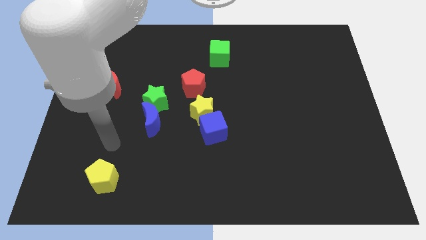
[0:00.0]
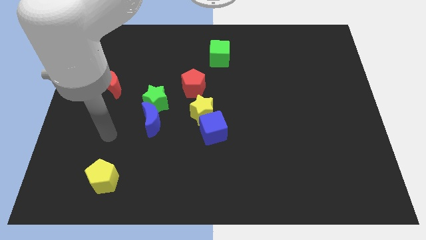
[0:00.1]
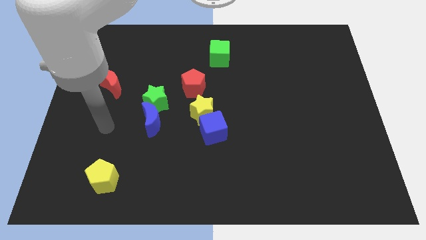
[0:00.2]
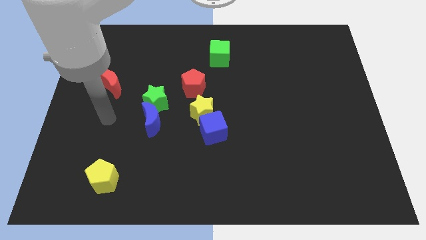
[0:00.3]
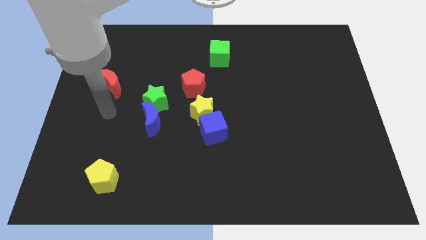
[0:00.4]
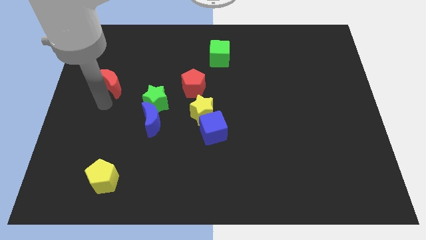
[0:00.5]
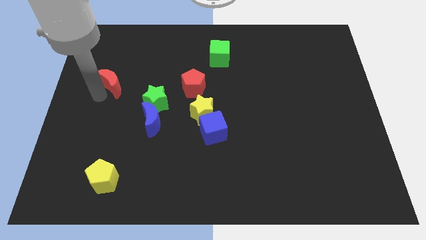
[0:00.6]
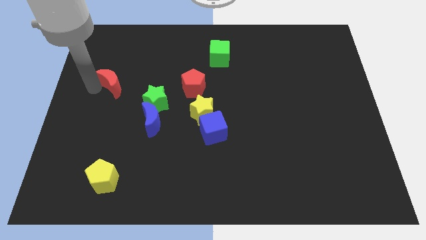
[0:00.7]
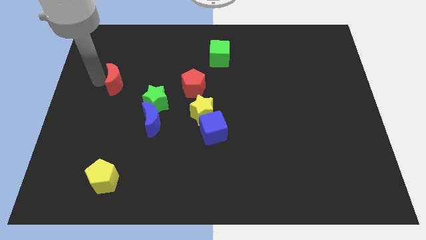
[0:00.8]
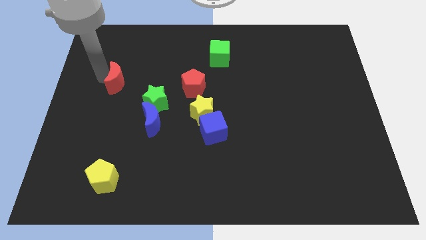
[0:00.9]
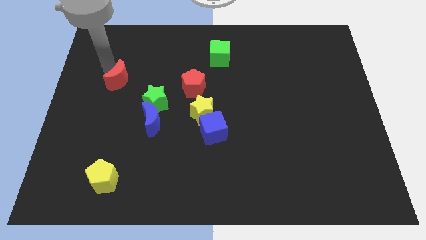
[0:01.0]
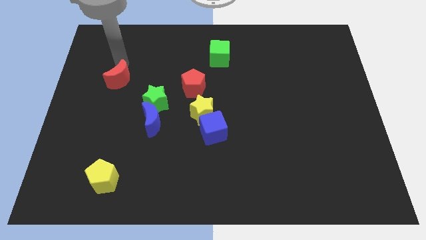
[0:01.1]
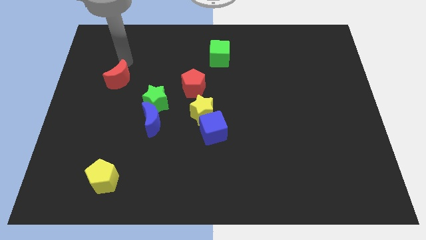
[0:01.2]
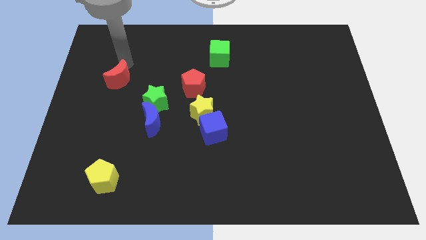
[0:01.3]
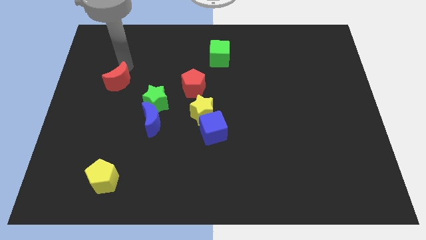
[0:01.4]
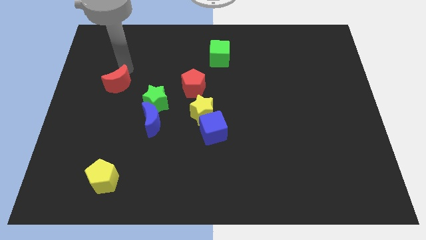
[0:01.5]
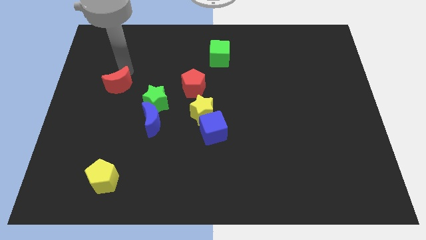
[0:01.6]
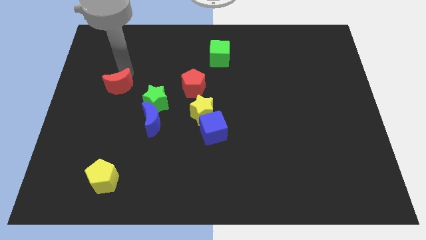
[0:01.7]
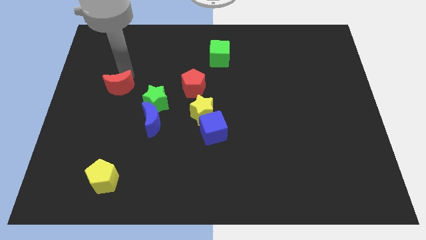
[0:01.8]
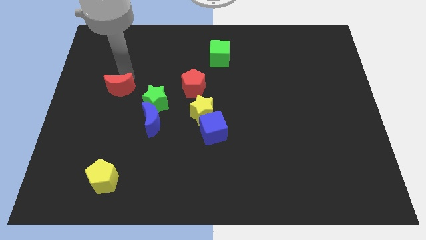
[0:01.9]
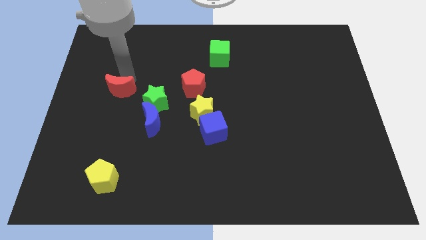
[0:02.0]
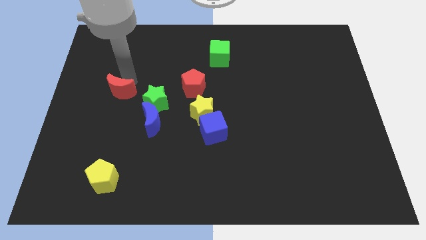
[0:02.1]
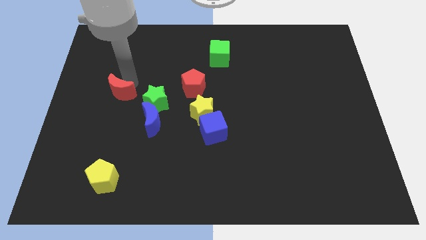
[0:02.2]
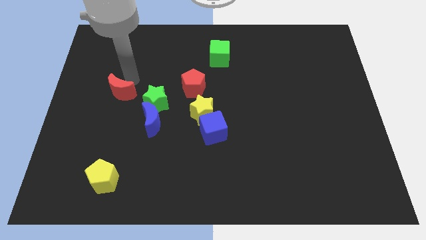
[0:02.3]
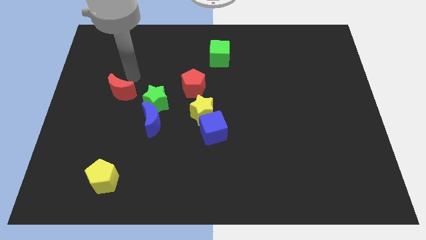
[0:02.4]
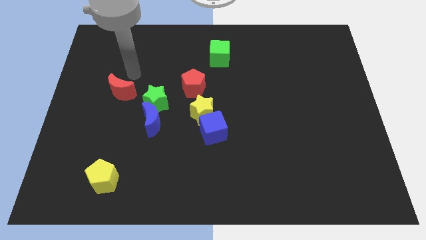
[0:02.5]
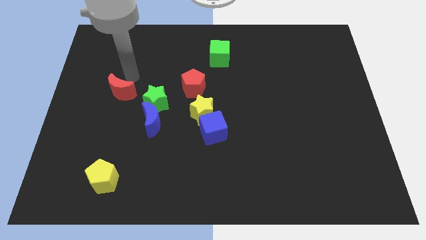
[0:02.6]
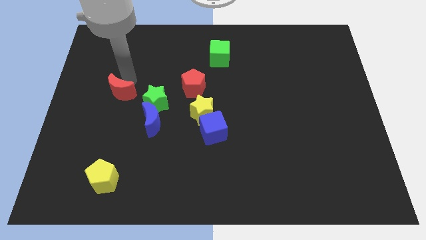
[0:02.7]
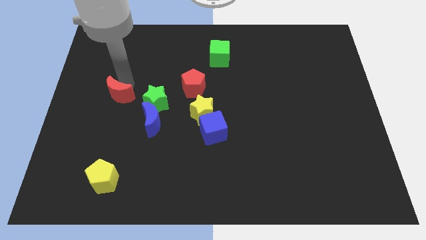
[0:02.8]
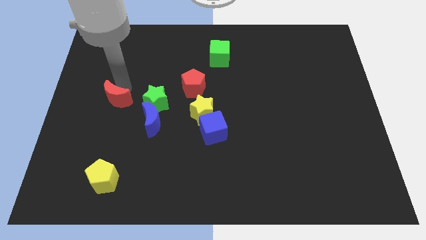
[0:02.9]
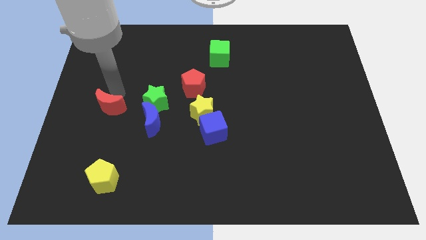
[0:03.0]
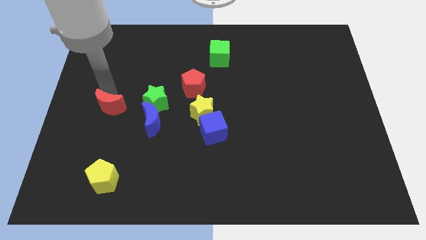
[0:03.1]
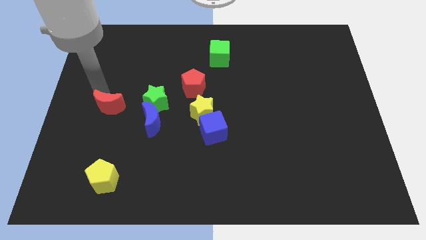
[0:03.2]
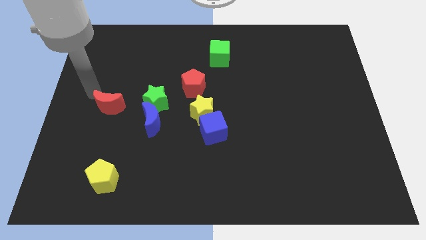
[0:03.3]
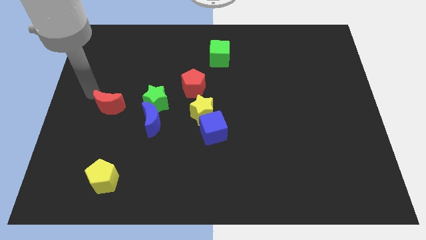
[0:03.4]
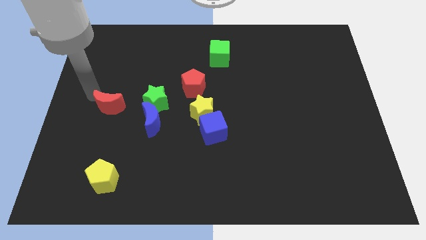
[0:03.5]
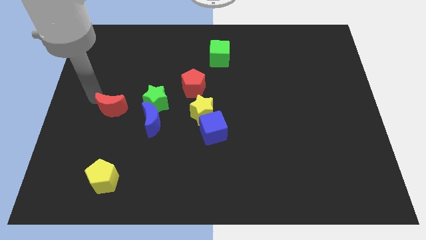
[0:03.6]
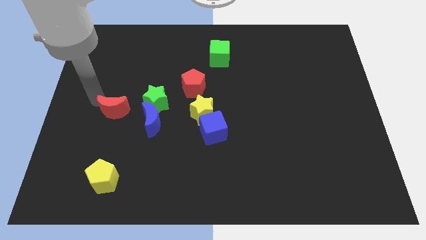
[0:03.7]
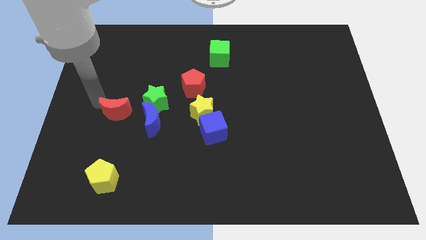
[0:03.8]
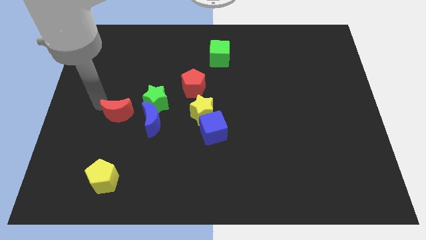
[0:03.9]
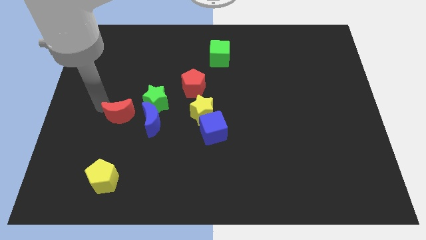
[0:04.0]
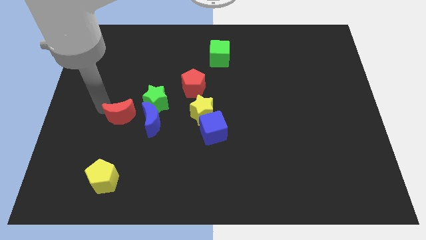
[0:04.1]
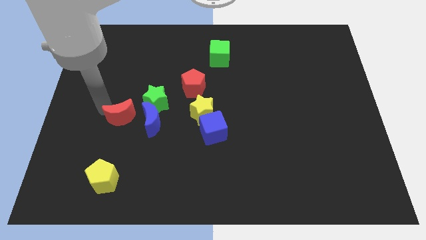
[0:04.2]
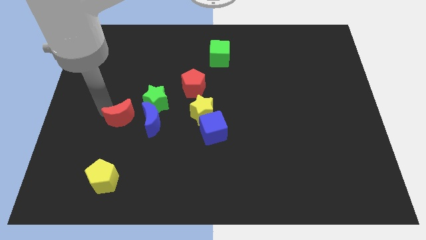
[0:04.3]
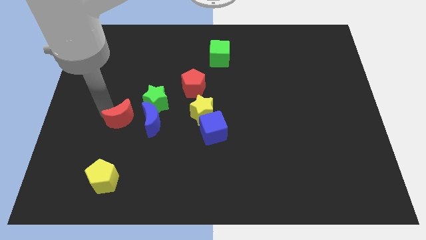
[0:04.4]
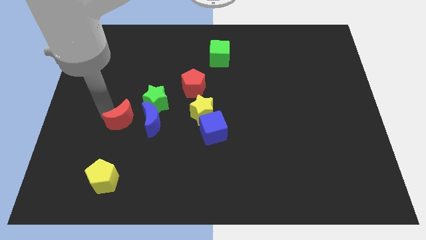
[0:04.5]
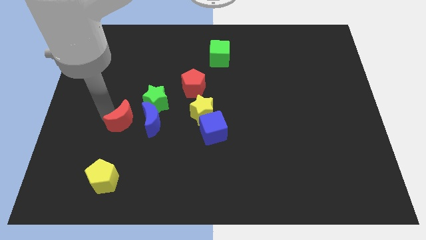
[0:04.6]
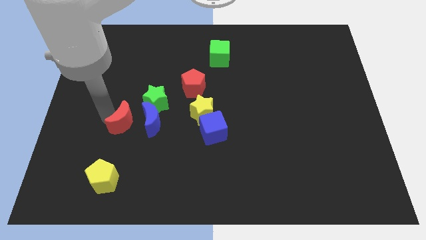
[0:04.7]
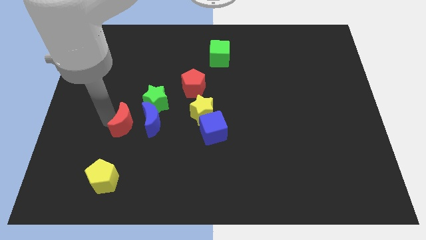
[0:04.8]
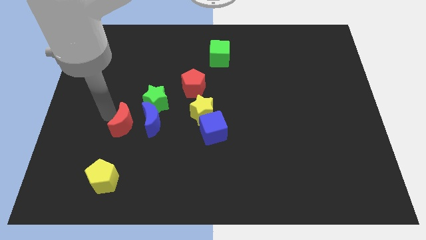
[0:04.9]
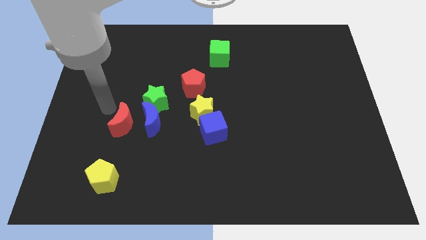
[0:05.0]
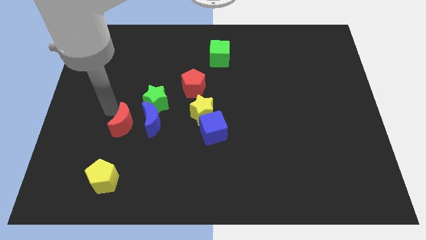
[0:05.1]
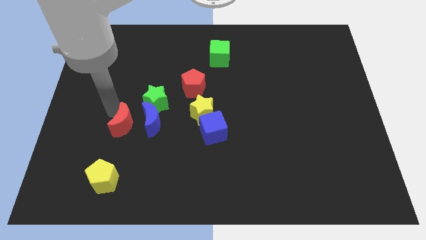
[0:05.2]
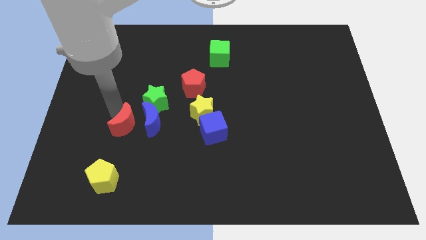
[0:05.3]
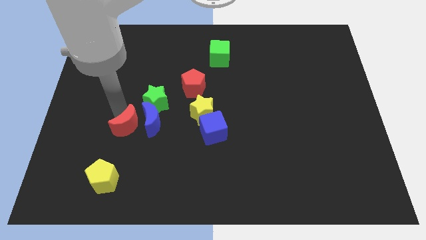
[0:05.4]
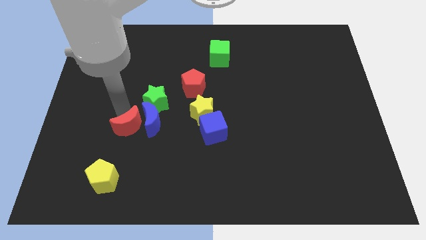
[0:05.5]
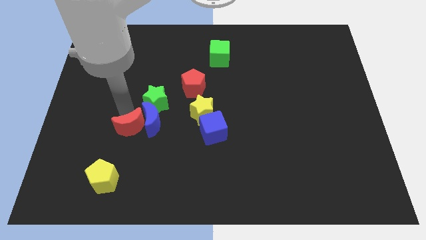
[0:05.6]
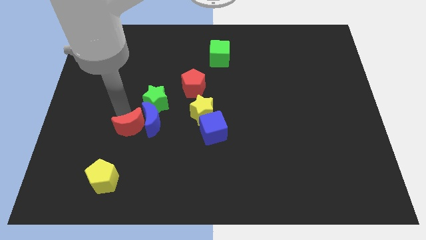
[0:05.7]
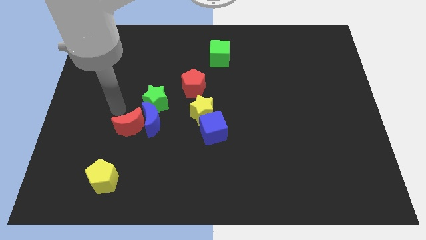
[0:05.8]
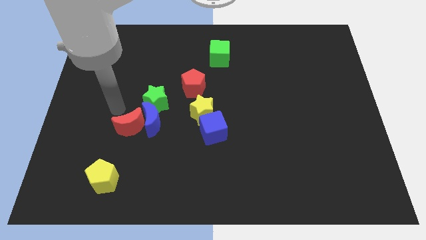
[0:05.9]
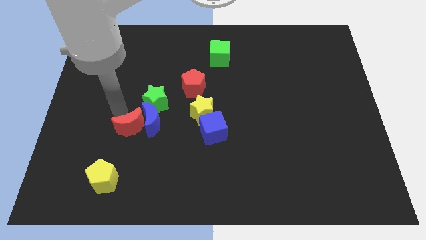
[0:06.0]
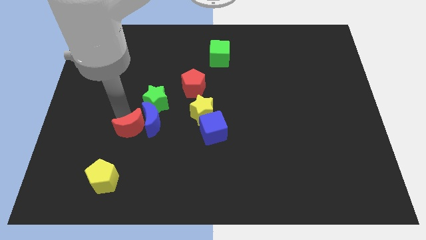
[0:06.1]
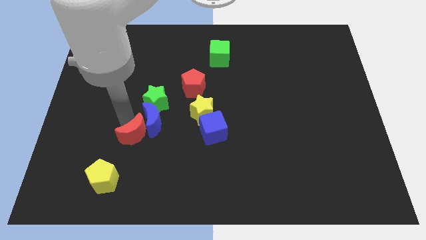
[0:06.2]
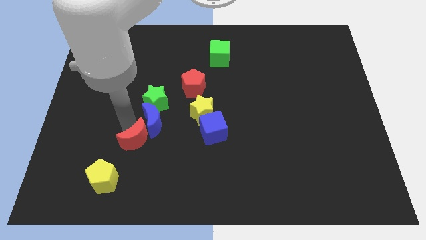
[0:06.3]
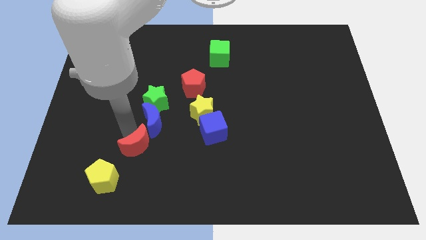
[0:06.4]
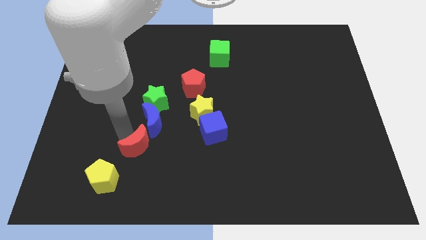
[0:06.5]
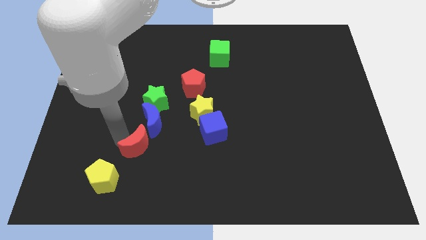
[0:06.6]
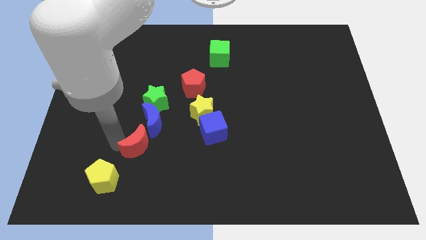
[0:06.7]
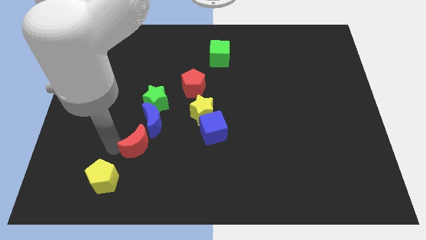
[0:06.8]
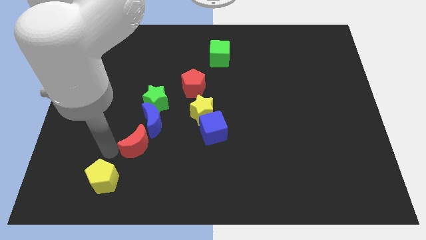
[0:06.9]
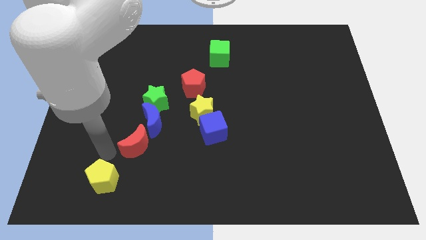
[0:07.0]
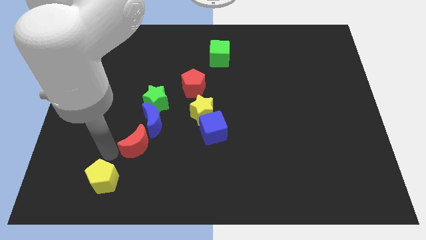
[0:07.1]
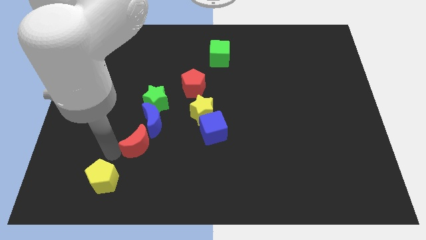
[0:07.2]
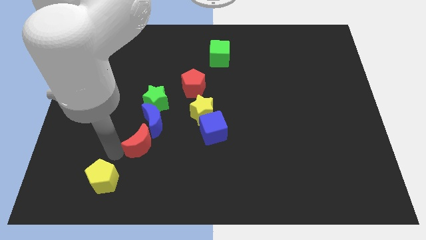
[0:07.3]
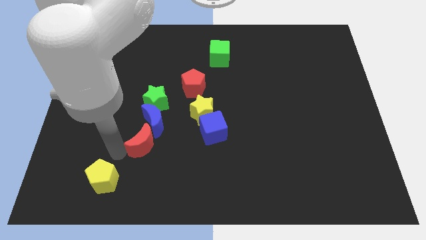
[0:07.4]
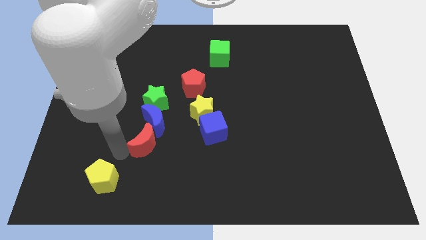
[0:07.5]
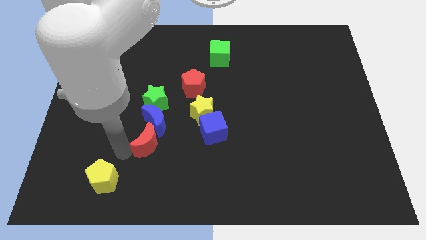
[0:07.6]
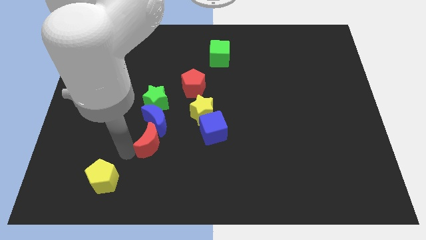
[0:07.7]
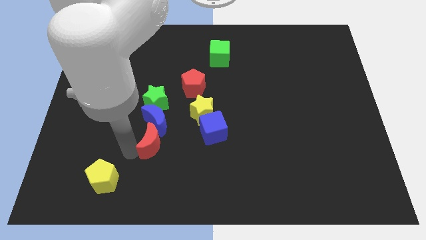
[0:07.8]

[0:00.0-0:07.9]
slide the red moon diagonally downwards and right
